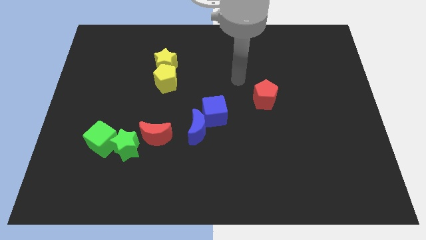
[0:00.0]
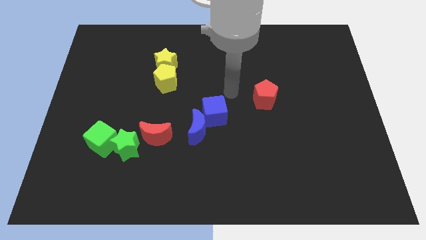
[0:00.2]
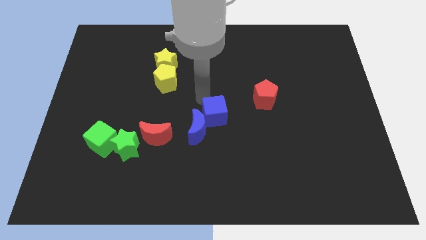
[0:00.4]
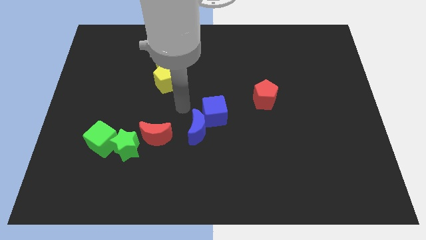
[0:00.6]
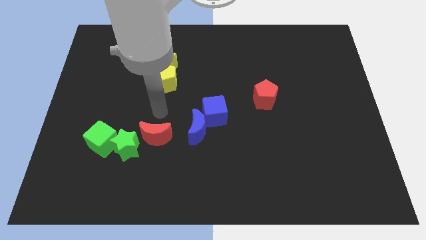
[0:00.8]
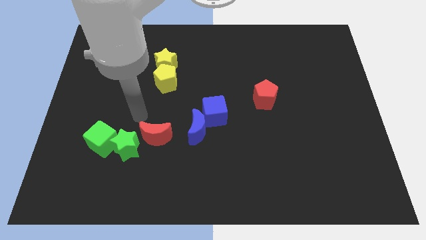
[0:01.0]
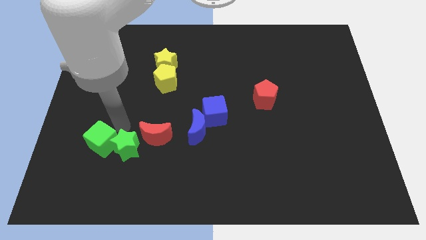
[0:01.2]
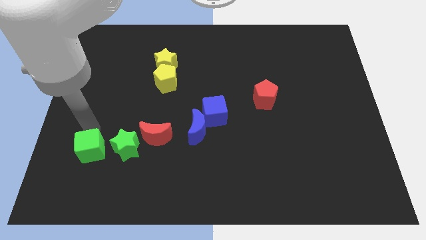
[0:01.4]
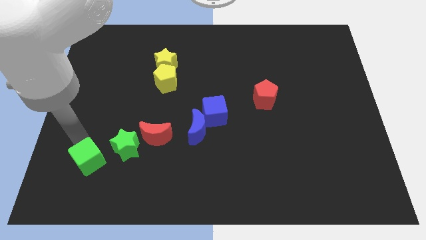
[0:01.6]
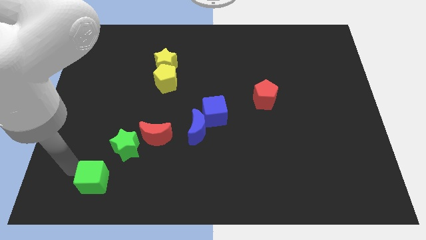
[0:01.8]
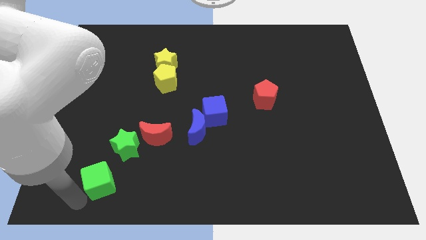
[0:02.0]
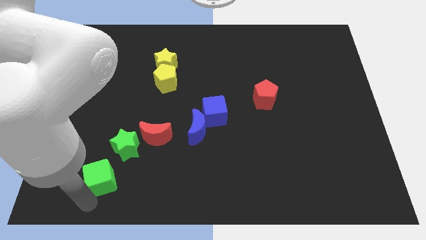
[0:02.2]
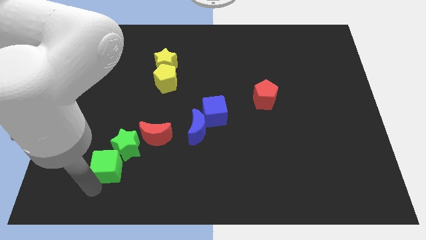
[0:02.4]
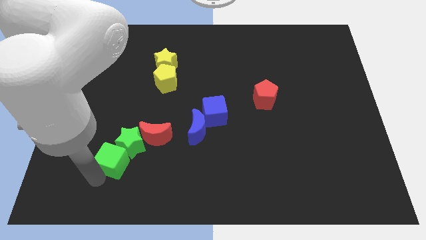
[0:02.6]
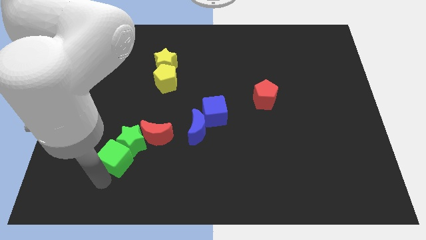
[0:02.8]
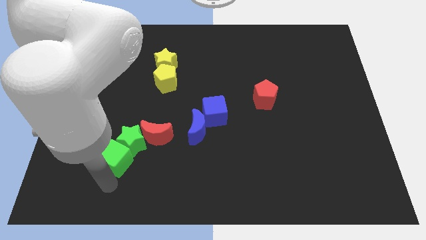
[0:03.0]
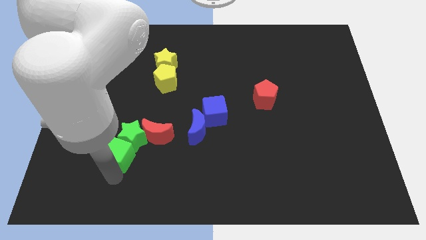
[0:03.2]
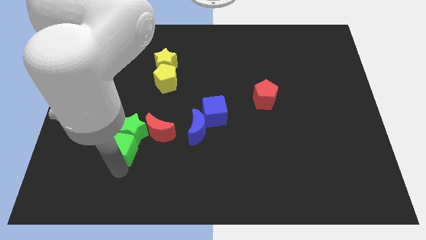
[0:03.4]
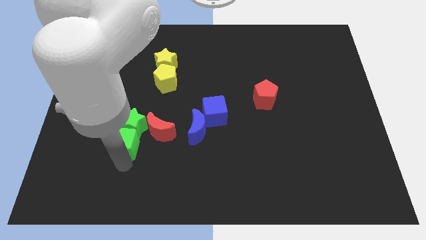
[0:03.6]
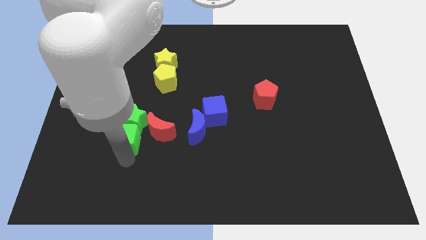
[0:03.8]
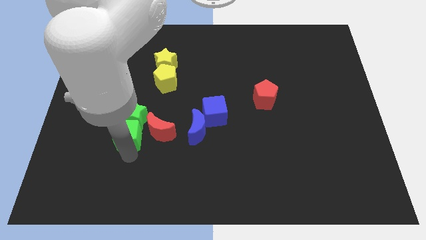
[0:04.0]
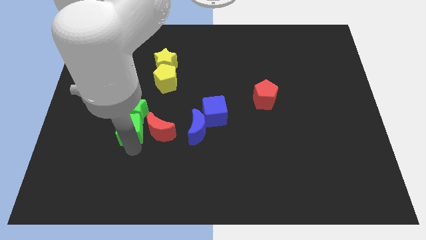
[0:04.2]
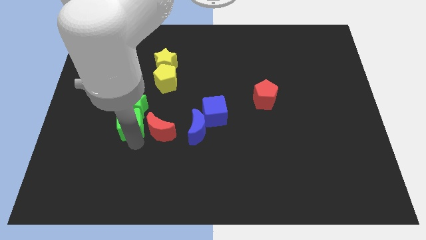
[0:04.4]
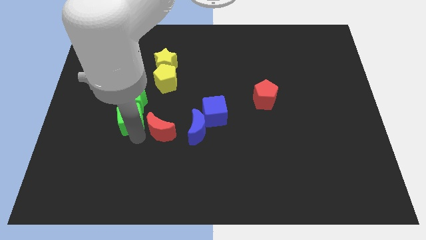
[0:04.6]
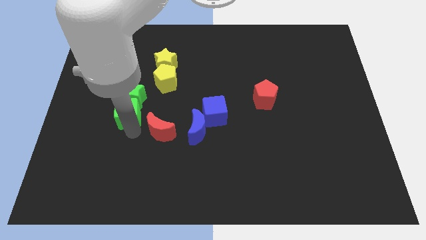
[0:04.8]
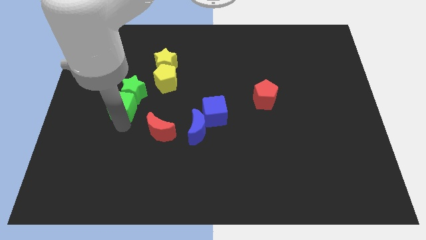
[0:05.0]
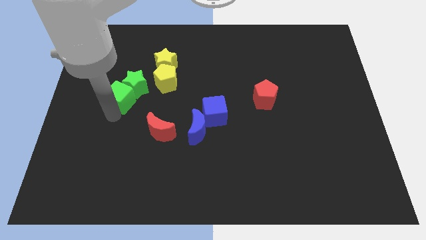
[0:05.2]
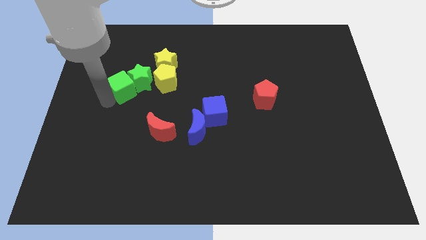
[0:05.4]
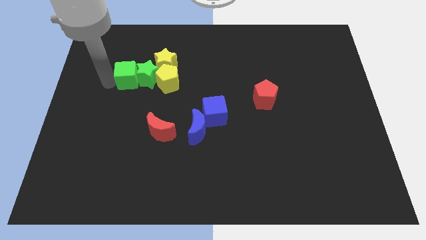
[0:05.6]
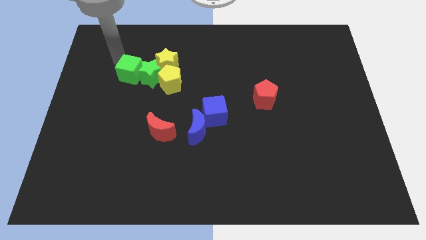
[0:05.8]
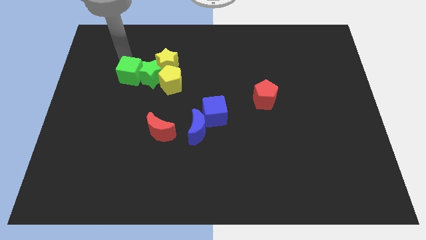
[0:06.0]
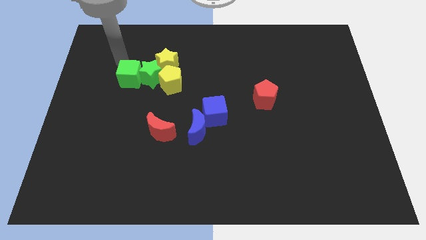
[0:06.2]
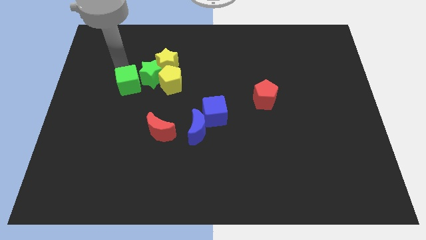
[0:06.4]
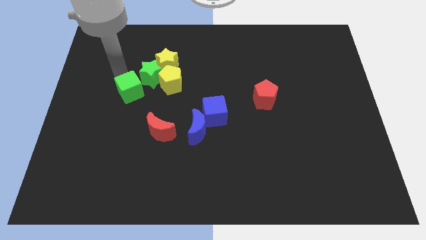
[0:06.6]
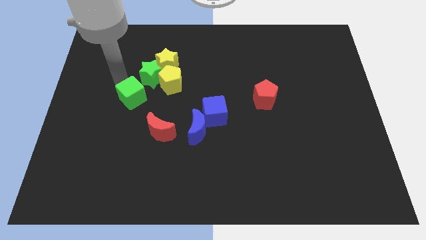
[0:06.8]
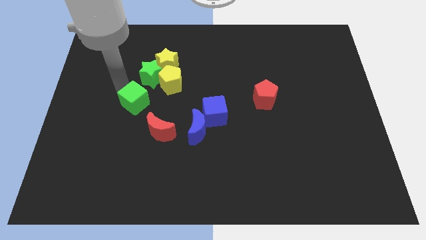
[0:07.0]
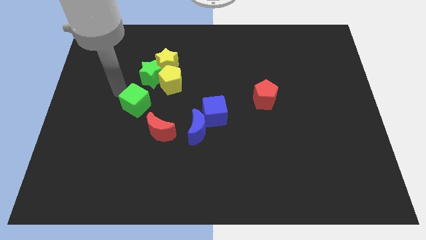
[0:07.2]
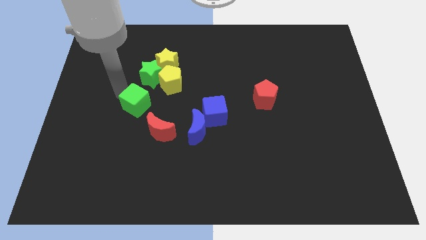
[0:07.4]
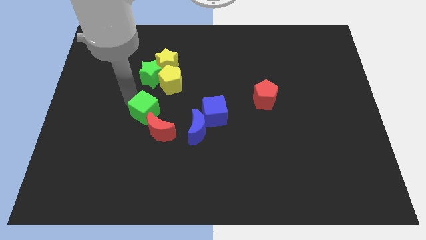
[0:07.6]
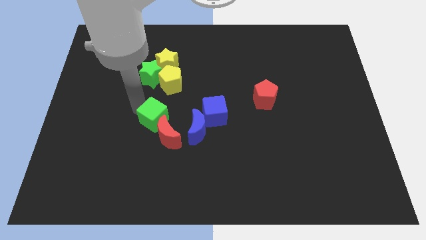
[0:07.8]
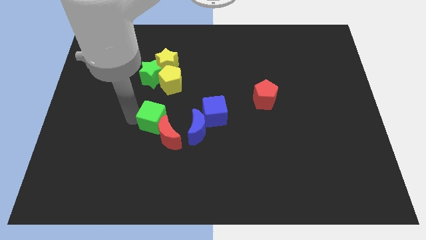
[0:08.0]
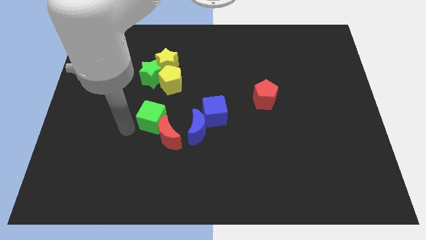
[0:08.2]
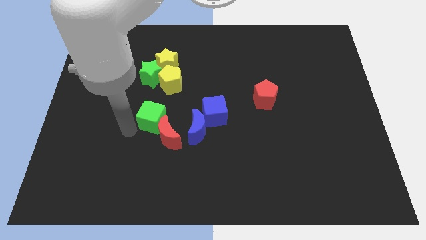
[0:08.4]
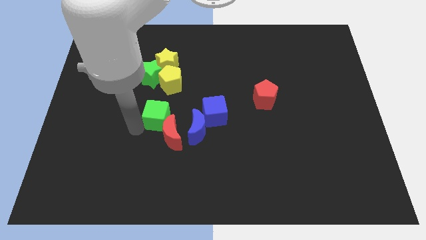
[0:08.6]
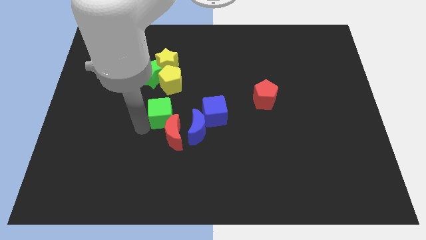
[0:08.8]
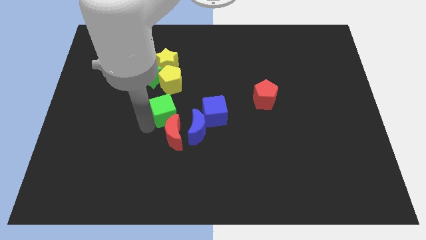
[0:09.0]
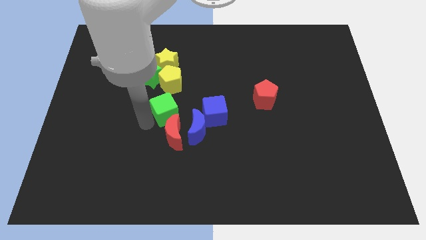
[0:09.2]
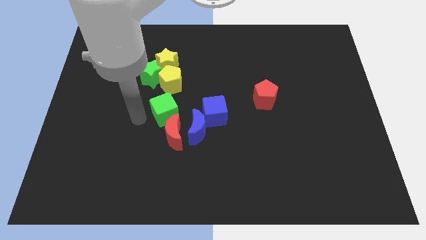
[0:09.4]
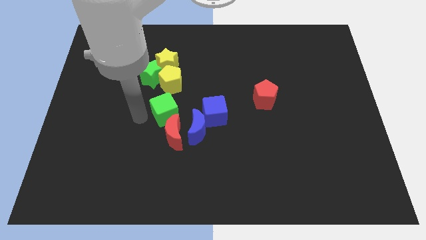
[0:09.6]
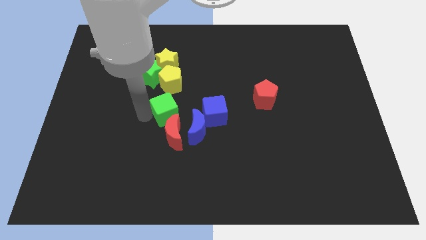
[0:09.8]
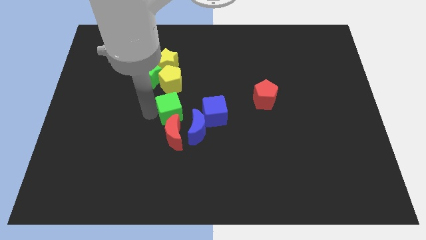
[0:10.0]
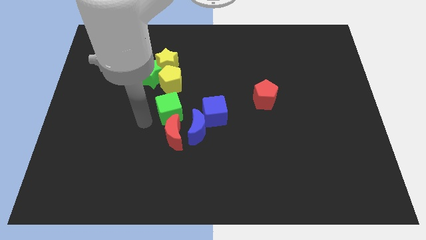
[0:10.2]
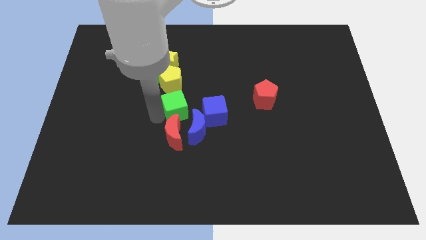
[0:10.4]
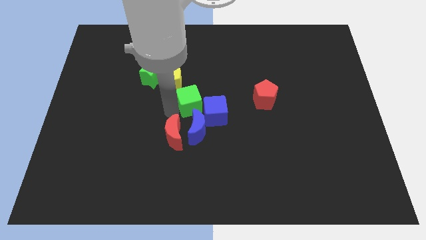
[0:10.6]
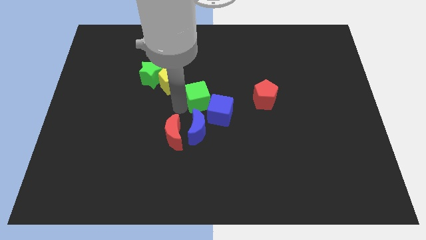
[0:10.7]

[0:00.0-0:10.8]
move the green cube to the left side of the red pentagon
